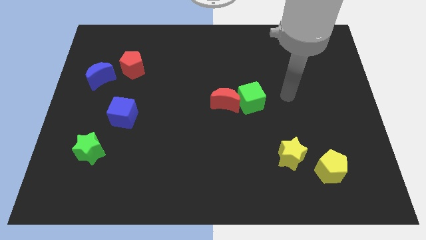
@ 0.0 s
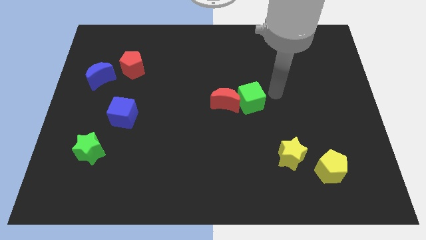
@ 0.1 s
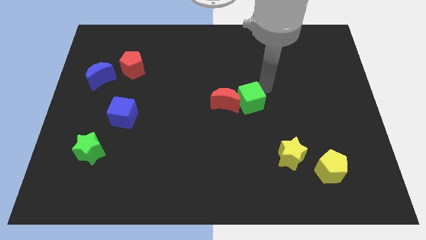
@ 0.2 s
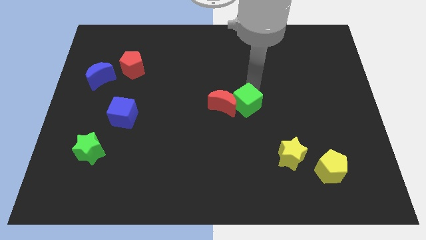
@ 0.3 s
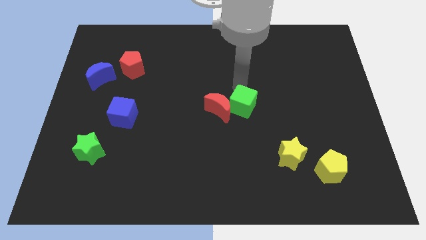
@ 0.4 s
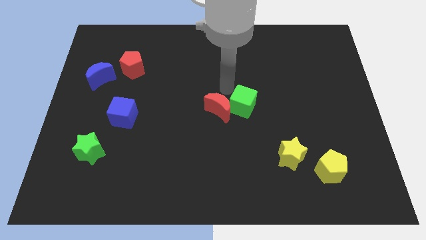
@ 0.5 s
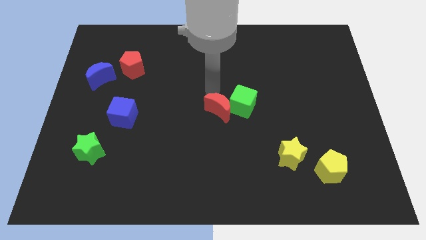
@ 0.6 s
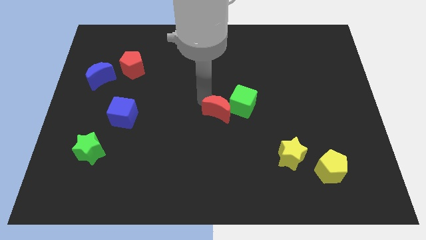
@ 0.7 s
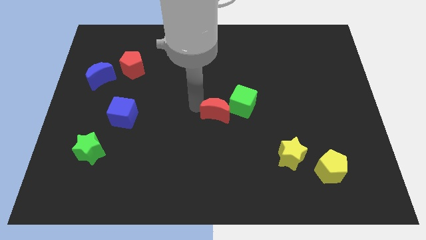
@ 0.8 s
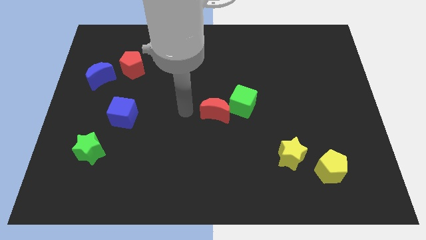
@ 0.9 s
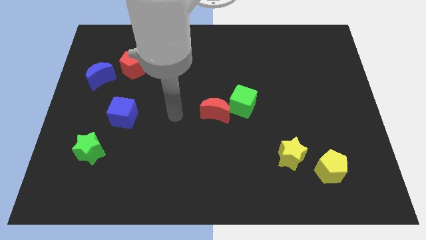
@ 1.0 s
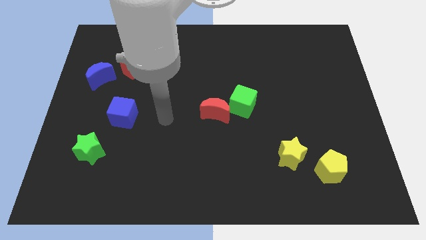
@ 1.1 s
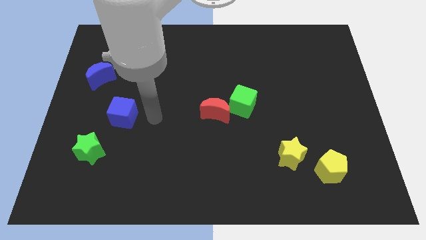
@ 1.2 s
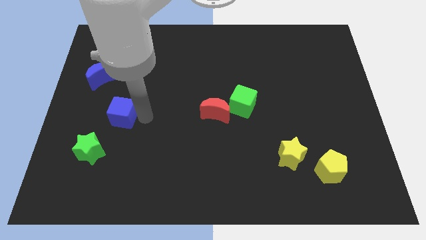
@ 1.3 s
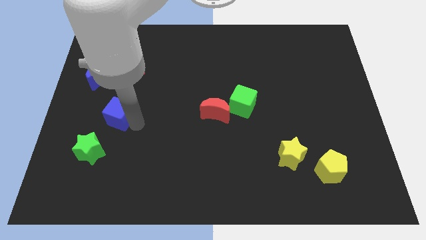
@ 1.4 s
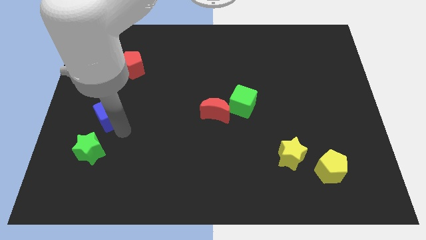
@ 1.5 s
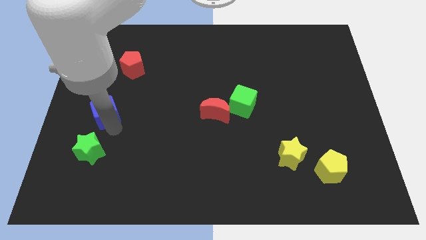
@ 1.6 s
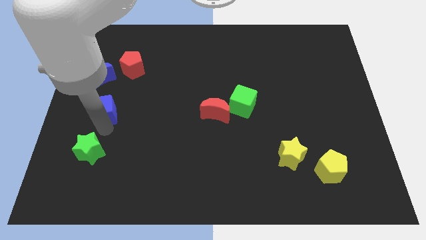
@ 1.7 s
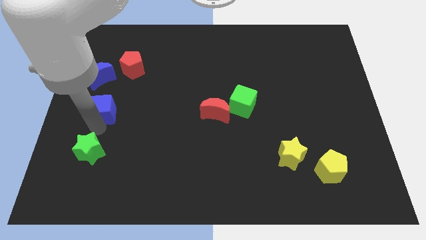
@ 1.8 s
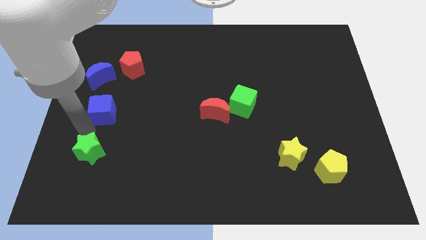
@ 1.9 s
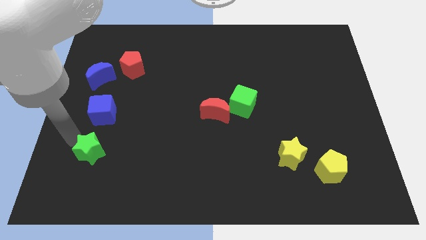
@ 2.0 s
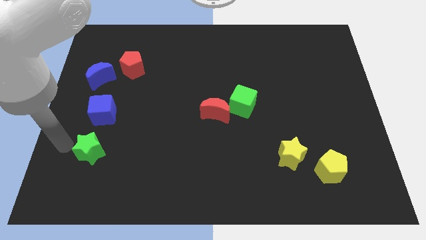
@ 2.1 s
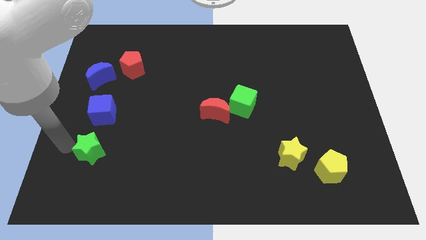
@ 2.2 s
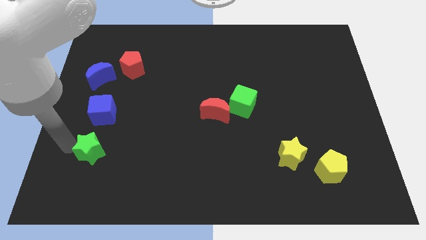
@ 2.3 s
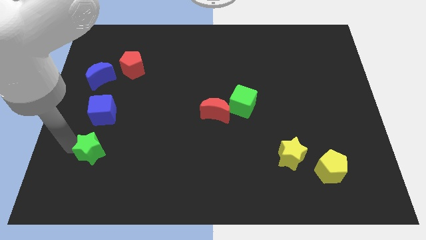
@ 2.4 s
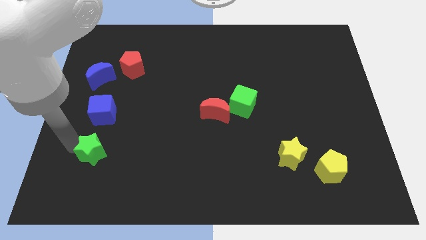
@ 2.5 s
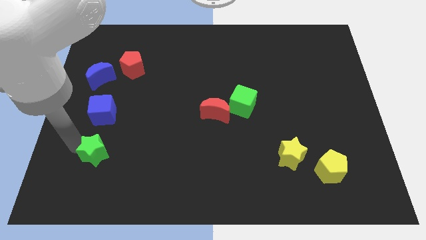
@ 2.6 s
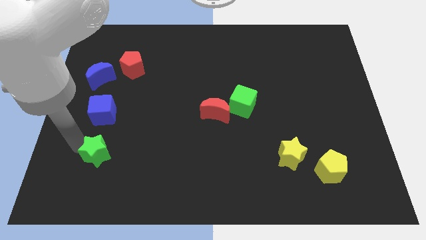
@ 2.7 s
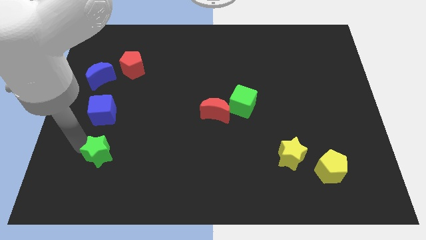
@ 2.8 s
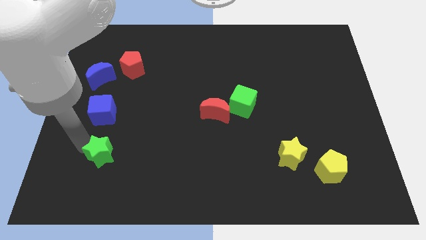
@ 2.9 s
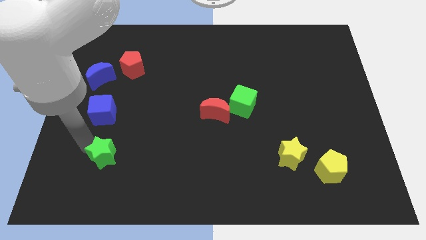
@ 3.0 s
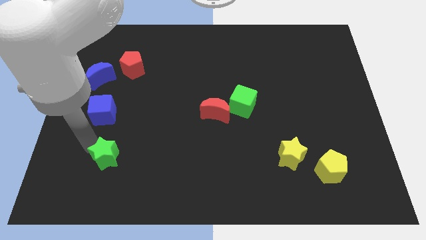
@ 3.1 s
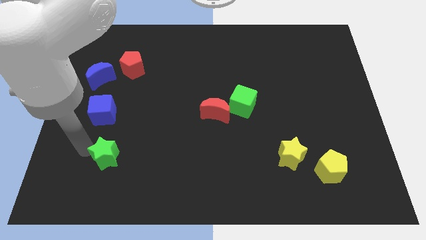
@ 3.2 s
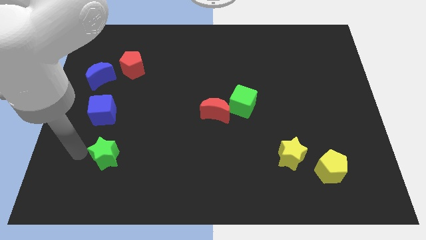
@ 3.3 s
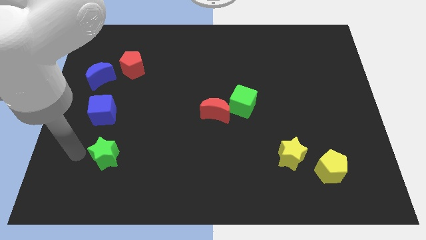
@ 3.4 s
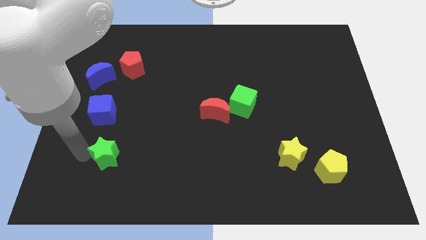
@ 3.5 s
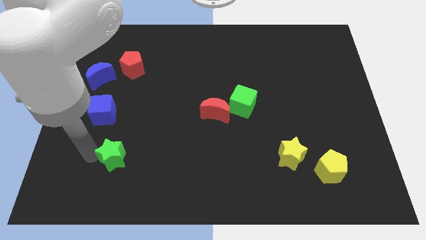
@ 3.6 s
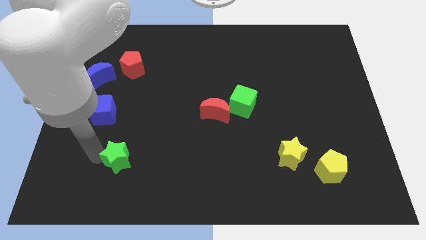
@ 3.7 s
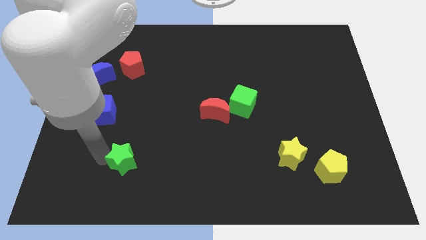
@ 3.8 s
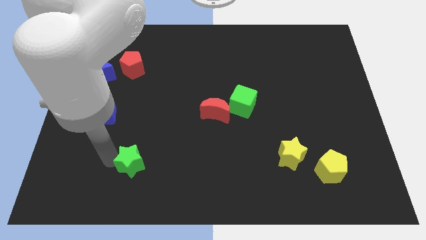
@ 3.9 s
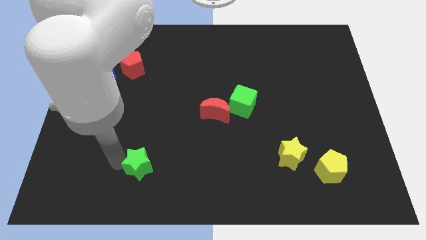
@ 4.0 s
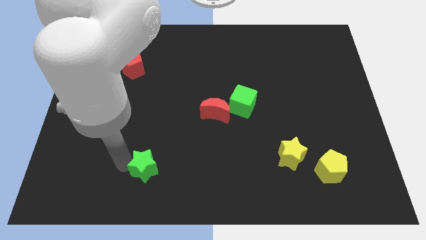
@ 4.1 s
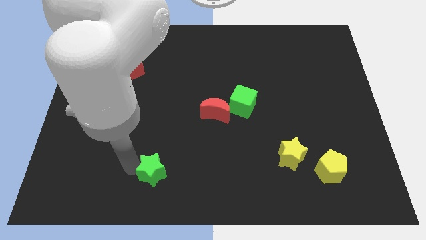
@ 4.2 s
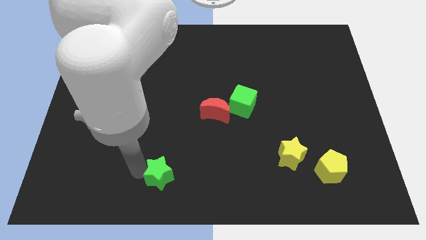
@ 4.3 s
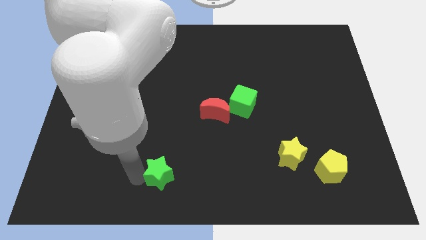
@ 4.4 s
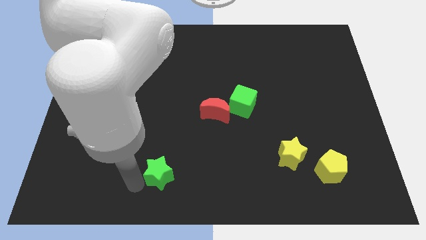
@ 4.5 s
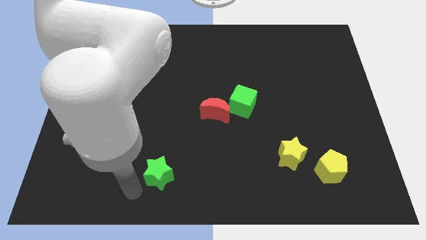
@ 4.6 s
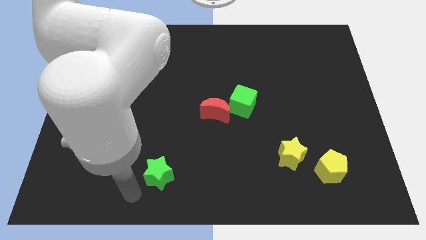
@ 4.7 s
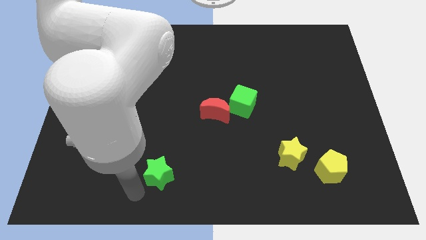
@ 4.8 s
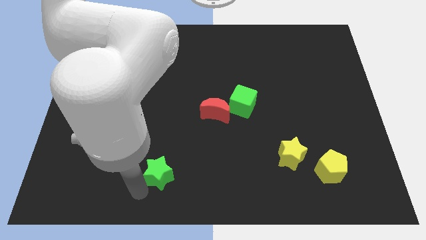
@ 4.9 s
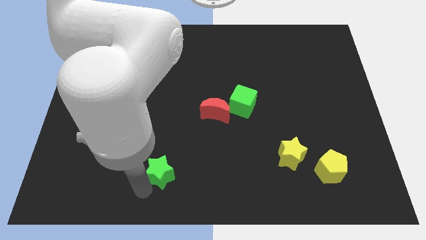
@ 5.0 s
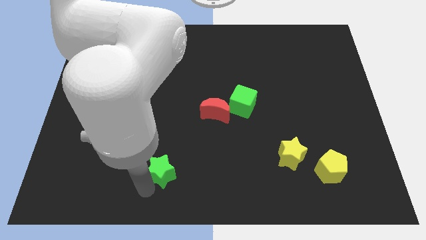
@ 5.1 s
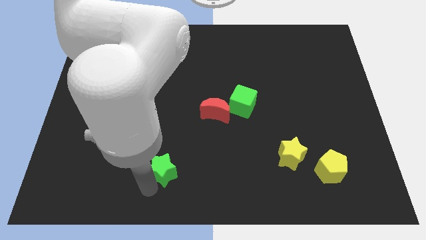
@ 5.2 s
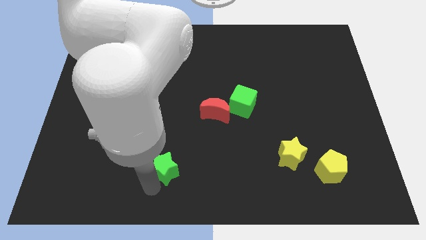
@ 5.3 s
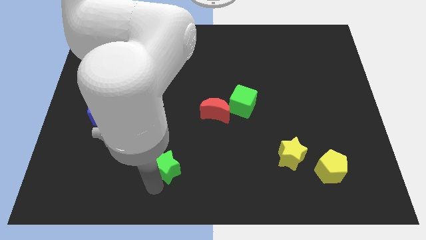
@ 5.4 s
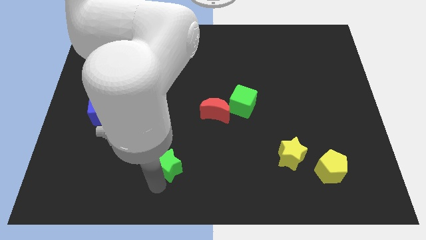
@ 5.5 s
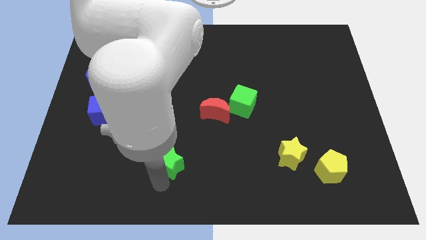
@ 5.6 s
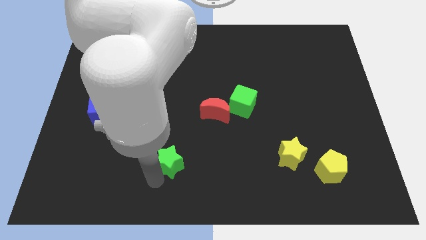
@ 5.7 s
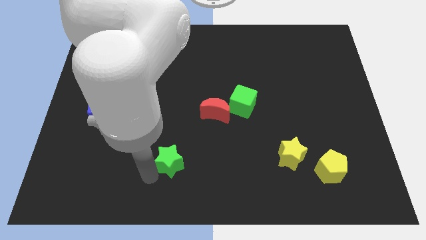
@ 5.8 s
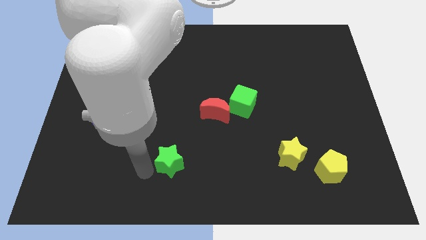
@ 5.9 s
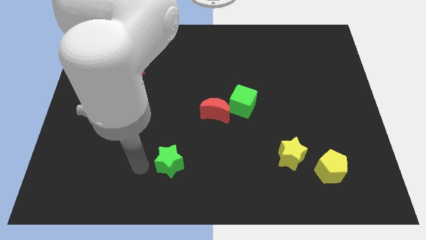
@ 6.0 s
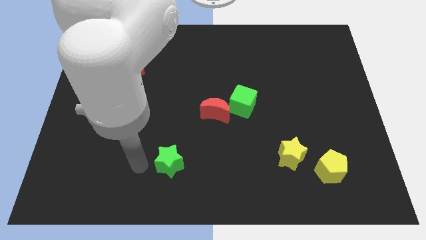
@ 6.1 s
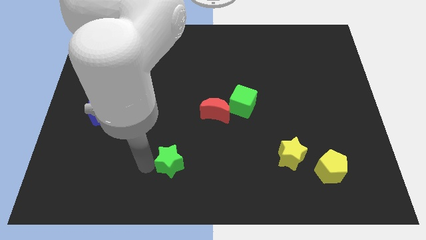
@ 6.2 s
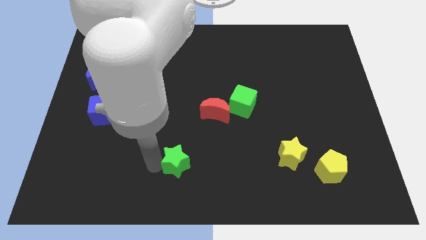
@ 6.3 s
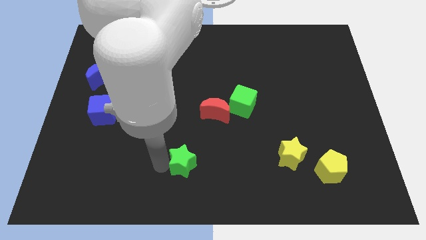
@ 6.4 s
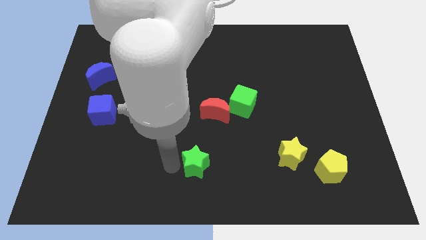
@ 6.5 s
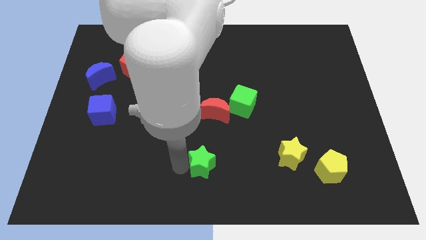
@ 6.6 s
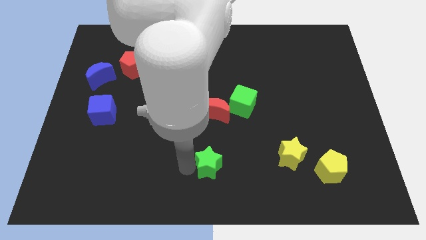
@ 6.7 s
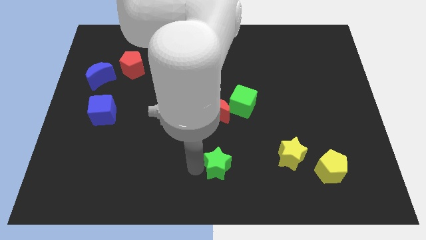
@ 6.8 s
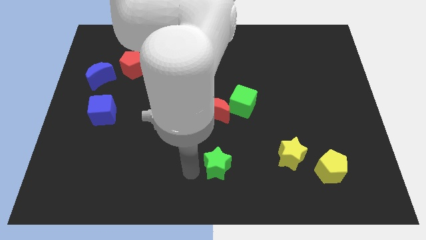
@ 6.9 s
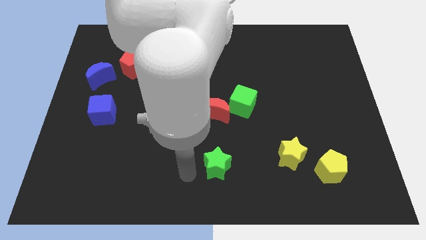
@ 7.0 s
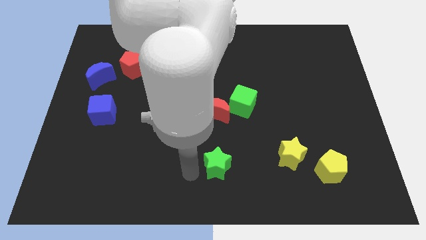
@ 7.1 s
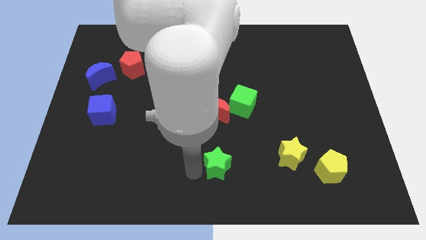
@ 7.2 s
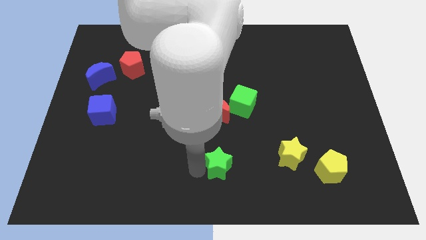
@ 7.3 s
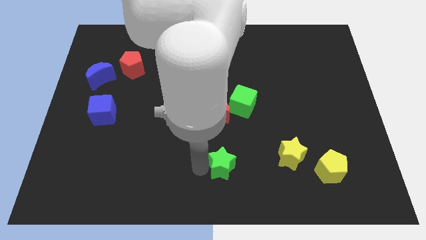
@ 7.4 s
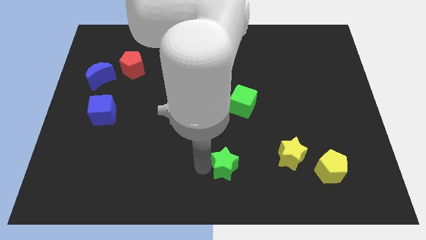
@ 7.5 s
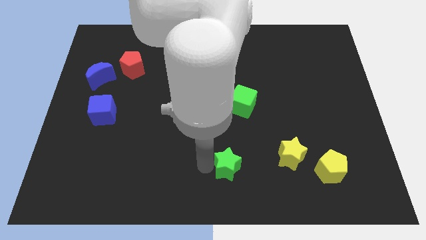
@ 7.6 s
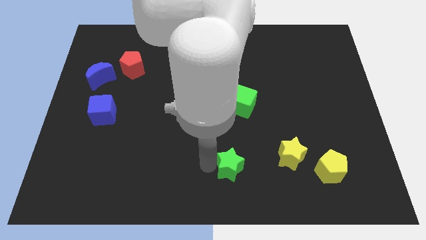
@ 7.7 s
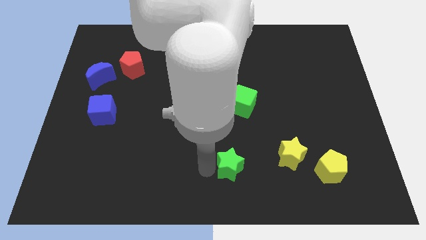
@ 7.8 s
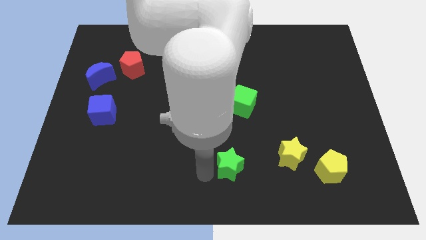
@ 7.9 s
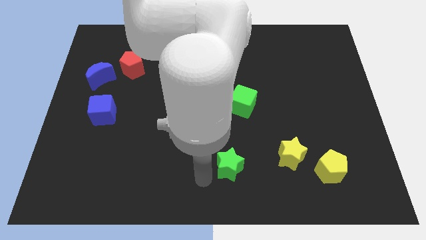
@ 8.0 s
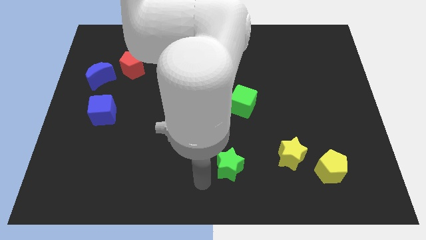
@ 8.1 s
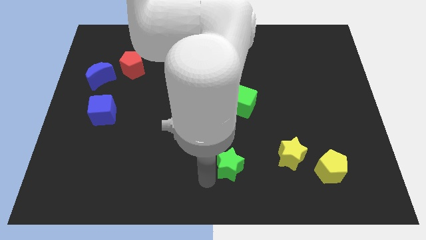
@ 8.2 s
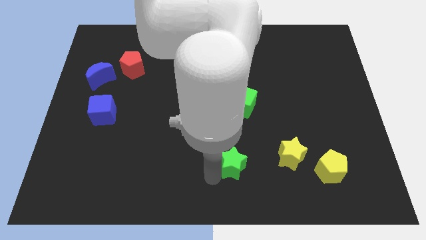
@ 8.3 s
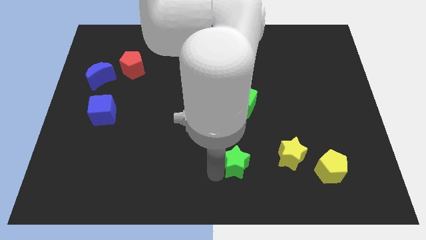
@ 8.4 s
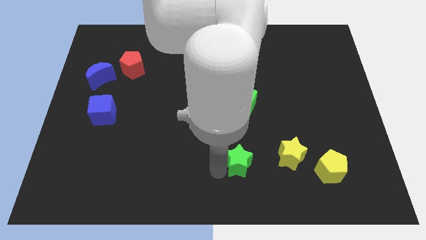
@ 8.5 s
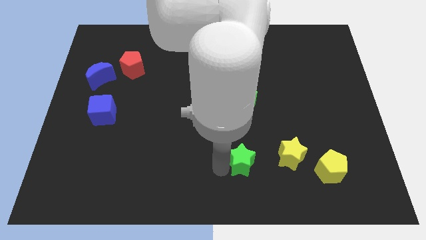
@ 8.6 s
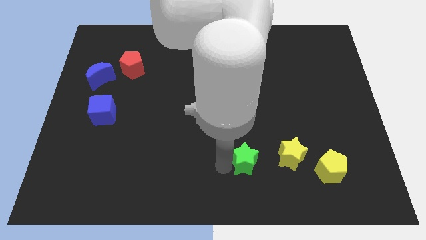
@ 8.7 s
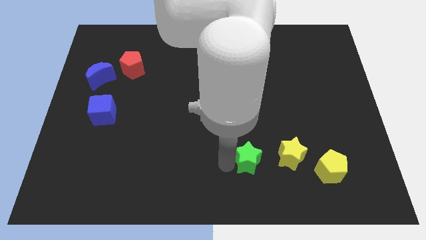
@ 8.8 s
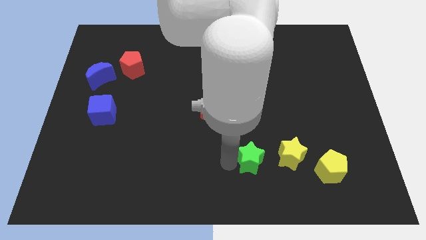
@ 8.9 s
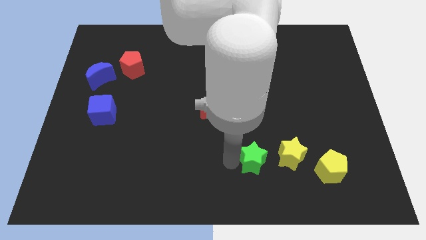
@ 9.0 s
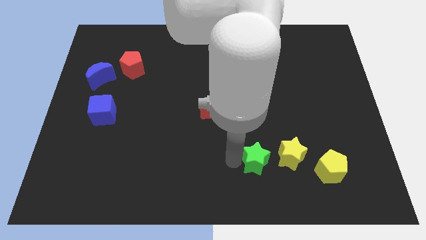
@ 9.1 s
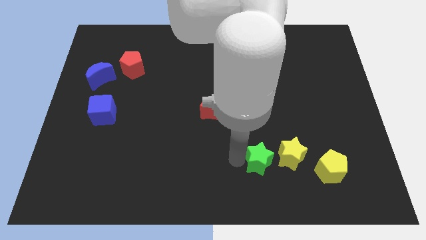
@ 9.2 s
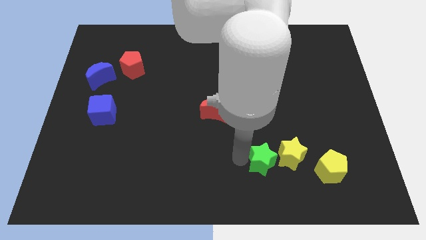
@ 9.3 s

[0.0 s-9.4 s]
put the green star next to the yellow star
